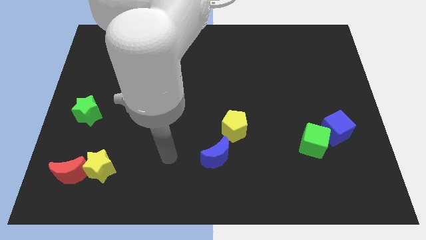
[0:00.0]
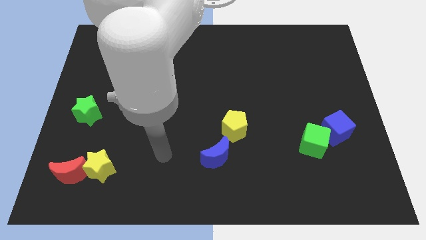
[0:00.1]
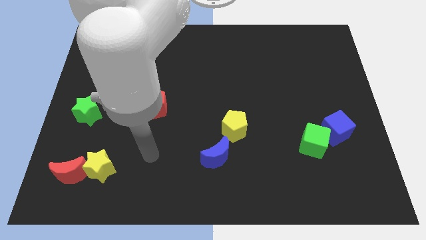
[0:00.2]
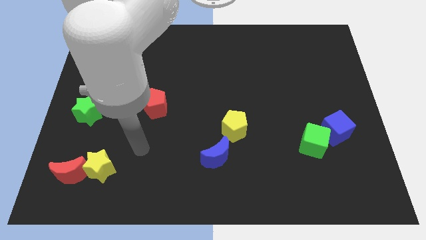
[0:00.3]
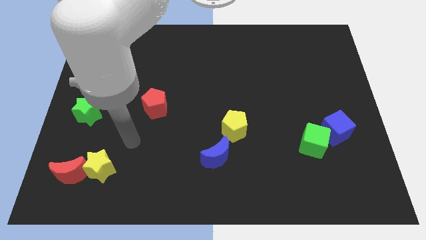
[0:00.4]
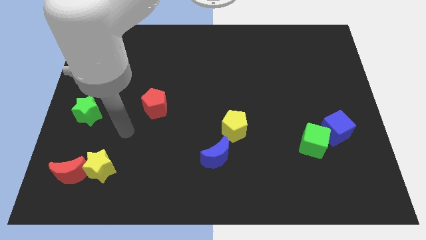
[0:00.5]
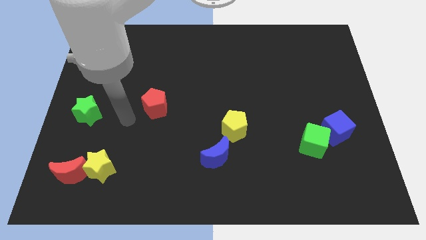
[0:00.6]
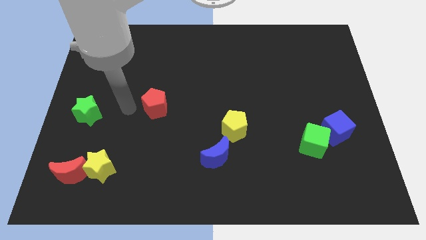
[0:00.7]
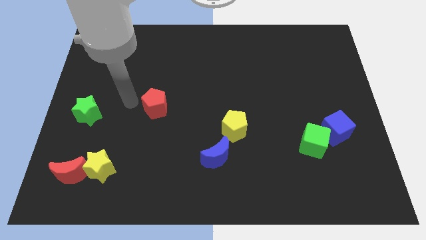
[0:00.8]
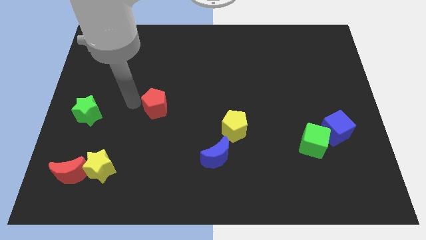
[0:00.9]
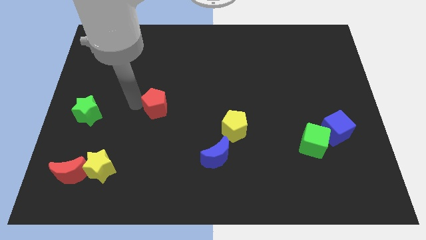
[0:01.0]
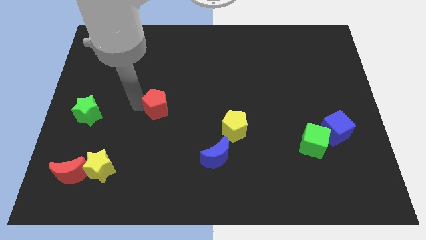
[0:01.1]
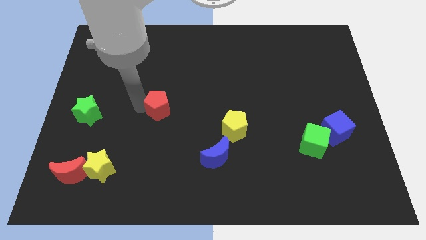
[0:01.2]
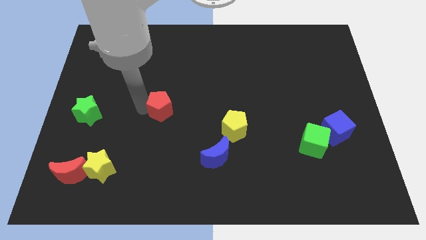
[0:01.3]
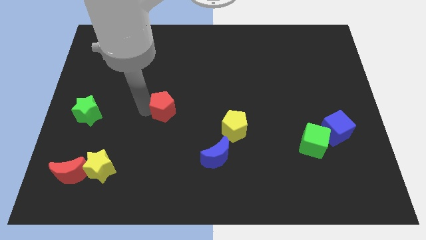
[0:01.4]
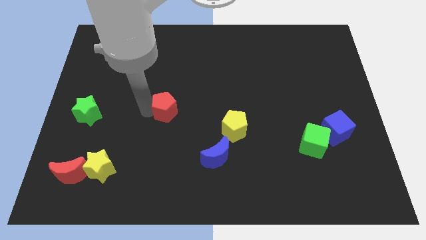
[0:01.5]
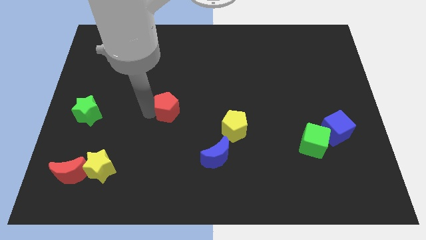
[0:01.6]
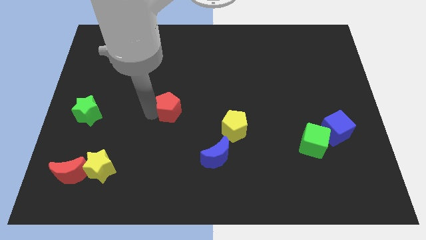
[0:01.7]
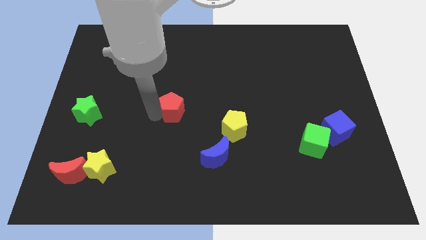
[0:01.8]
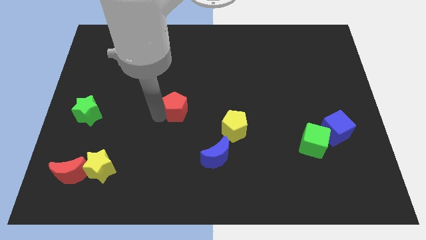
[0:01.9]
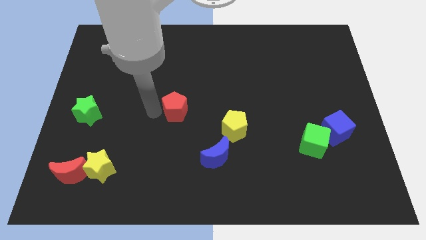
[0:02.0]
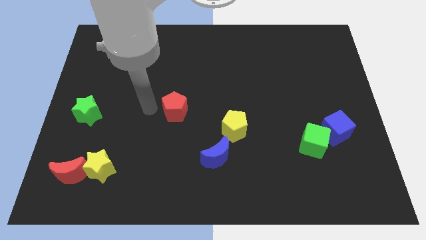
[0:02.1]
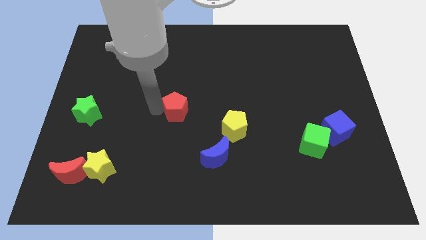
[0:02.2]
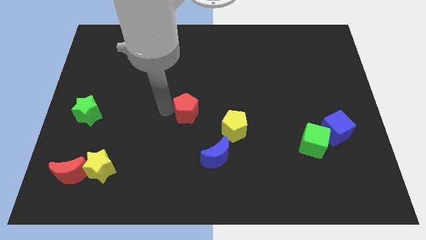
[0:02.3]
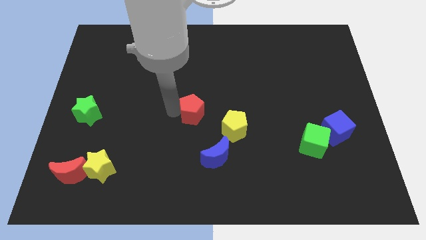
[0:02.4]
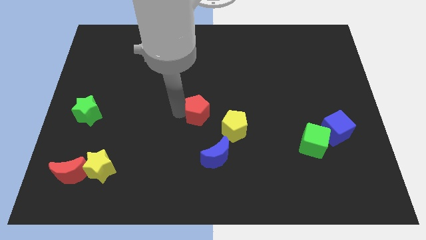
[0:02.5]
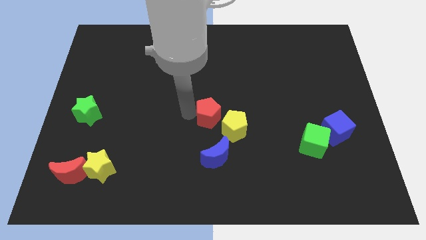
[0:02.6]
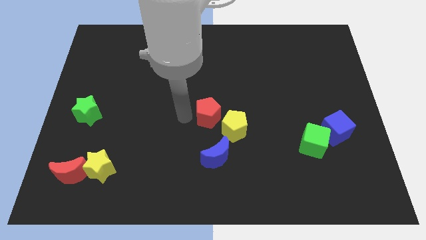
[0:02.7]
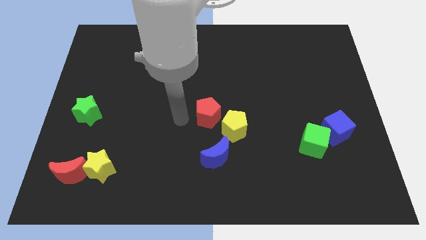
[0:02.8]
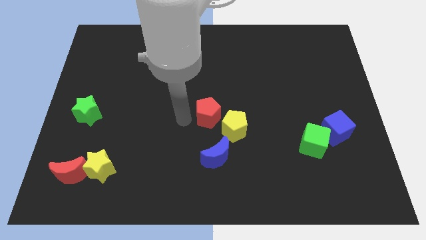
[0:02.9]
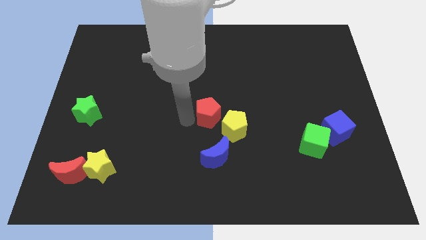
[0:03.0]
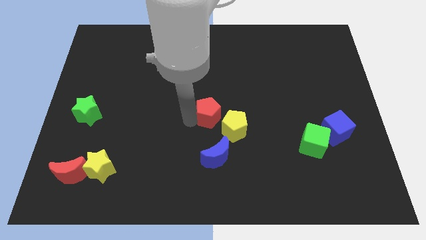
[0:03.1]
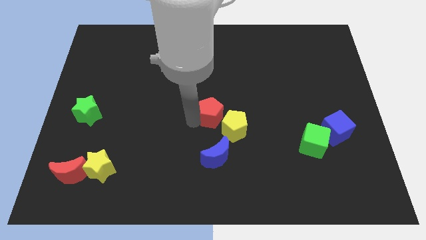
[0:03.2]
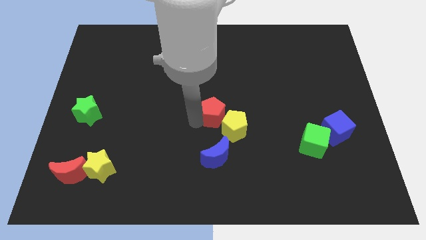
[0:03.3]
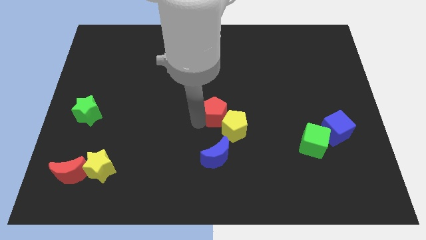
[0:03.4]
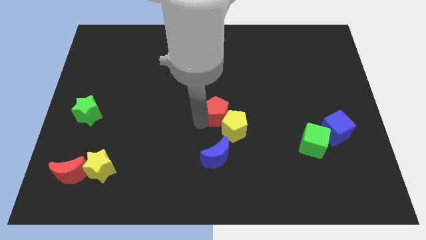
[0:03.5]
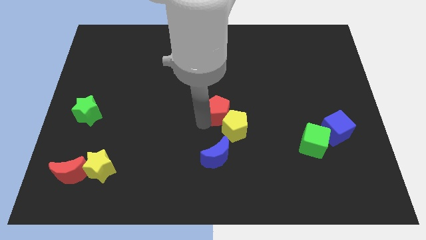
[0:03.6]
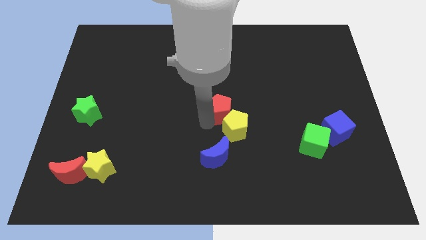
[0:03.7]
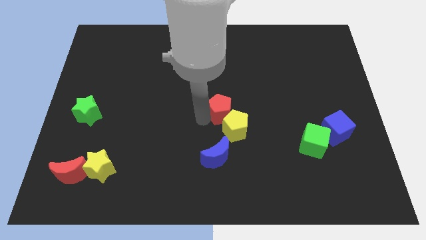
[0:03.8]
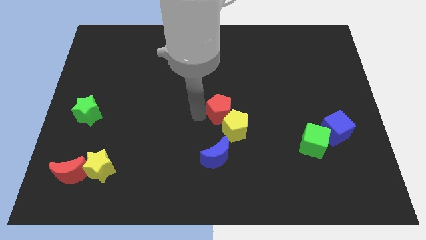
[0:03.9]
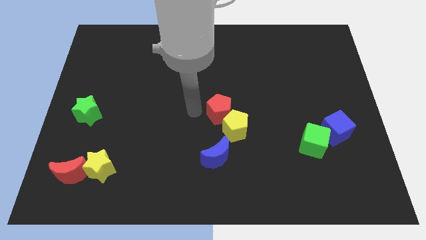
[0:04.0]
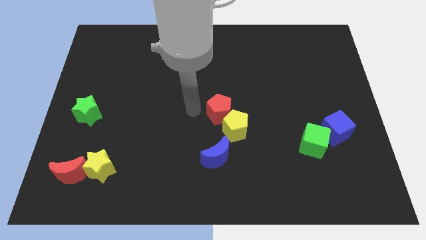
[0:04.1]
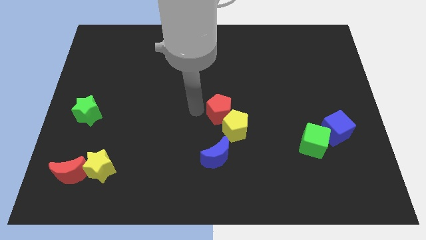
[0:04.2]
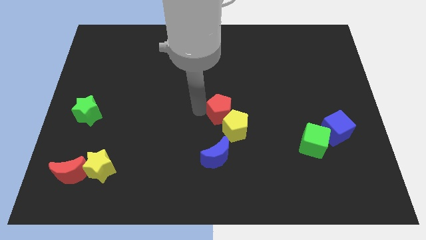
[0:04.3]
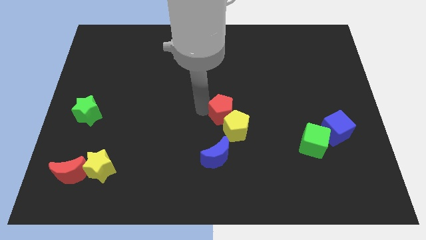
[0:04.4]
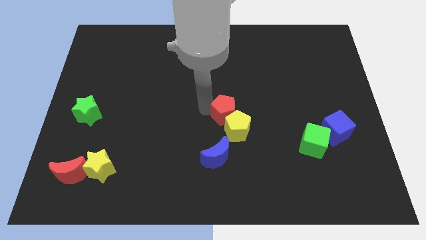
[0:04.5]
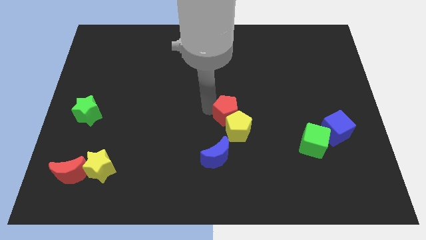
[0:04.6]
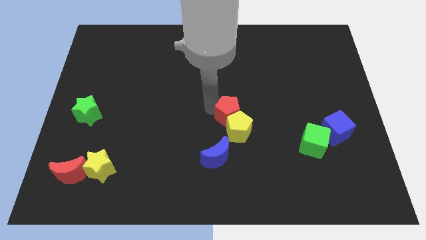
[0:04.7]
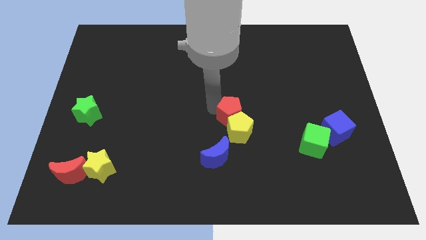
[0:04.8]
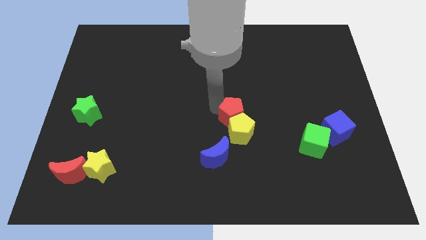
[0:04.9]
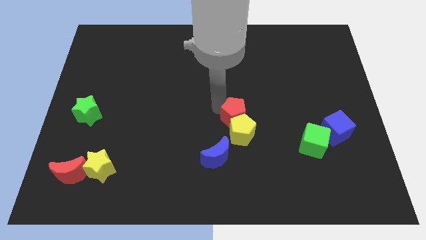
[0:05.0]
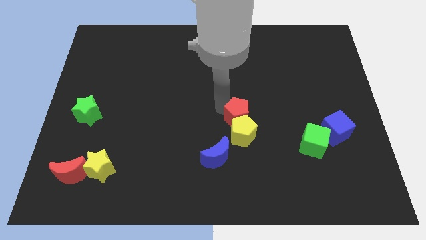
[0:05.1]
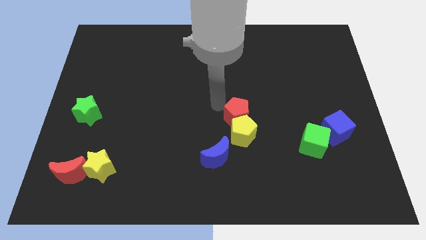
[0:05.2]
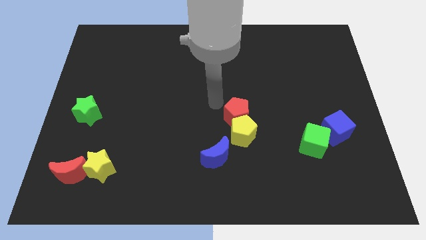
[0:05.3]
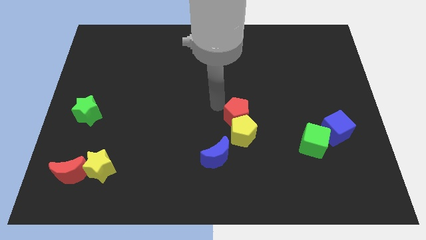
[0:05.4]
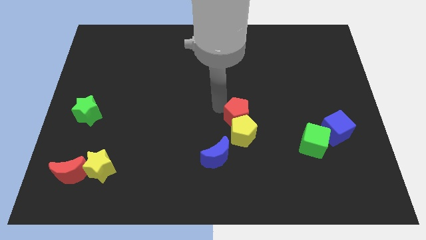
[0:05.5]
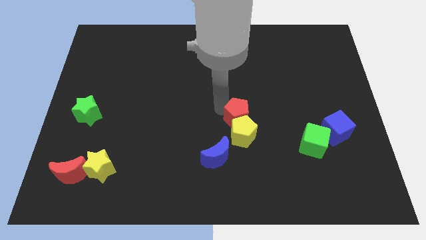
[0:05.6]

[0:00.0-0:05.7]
slide the red pentagon diagonally up and to the right of the blue moon
